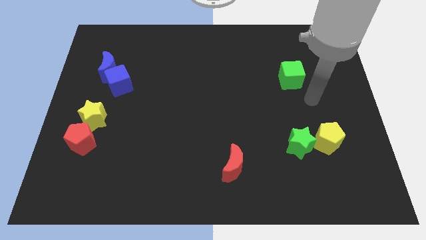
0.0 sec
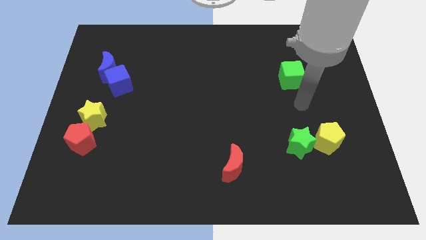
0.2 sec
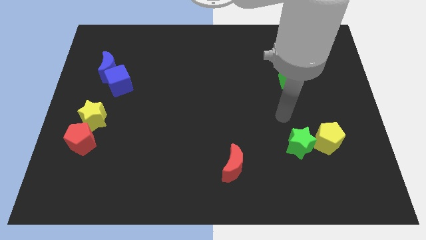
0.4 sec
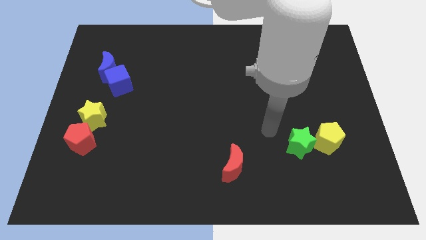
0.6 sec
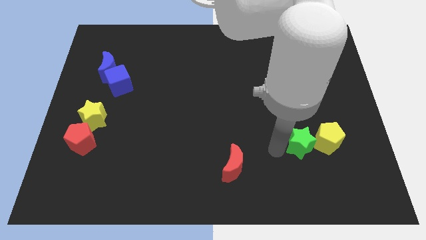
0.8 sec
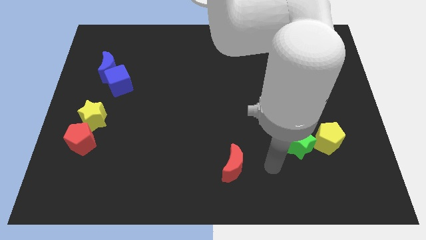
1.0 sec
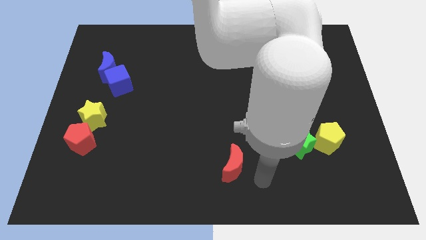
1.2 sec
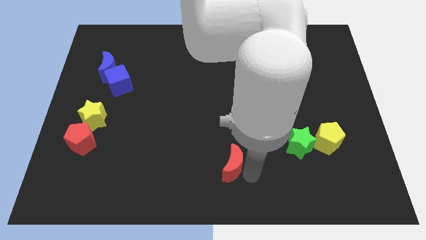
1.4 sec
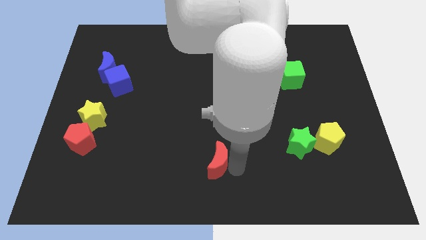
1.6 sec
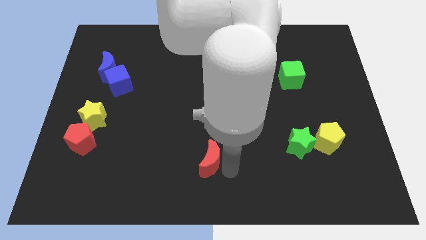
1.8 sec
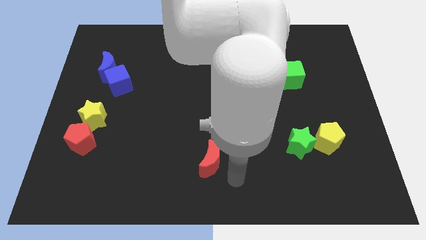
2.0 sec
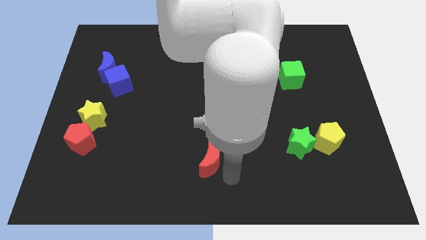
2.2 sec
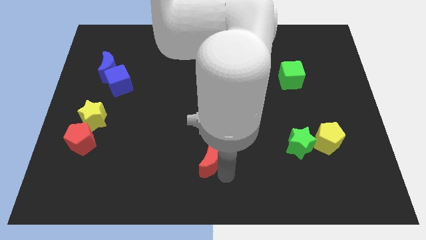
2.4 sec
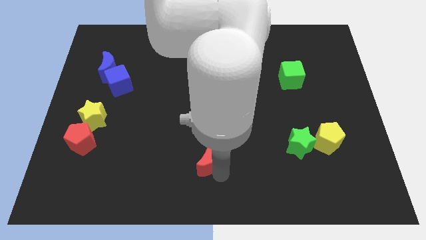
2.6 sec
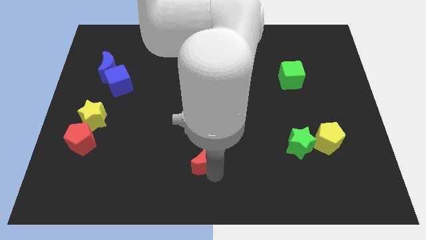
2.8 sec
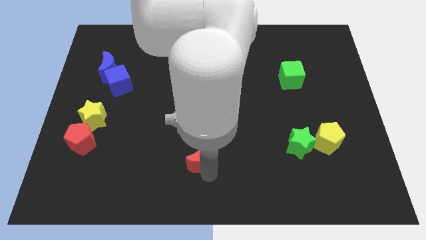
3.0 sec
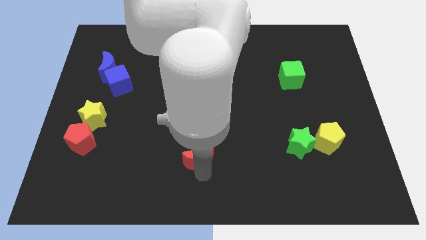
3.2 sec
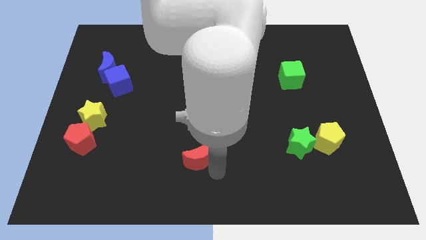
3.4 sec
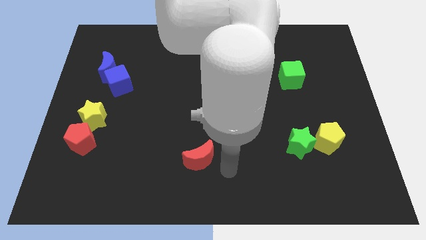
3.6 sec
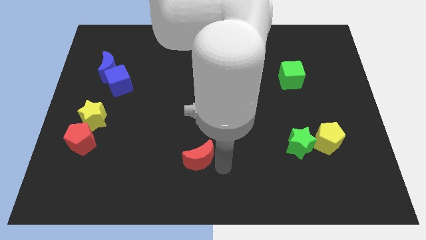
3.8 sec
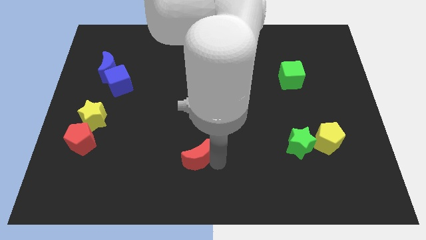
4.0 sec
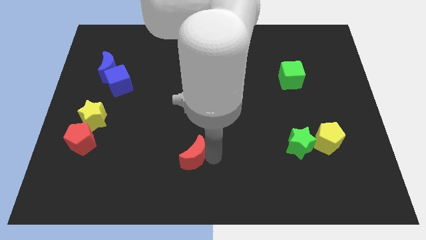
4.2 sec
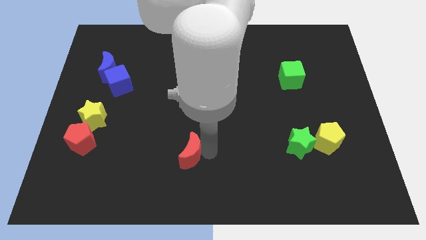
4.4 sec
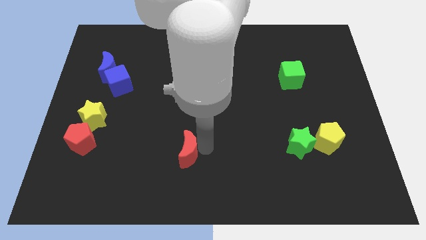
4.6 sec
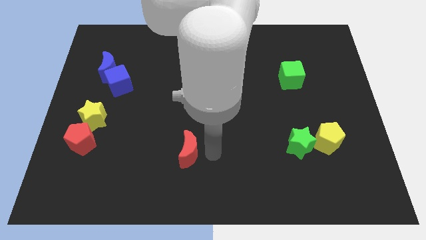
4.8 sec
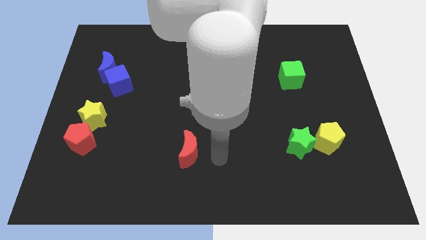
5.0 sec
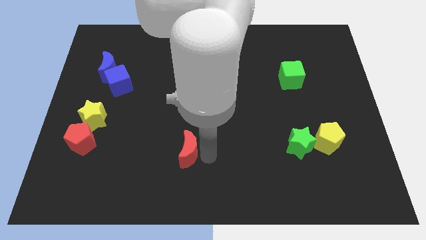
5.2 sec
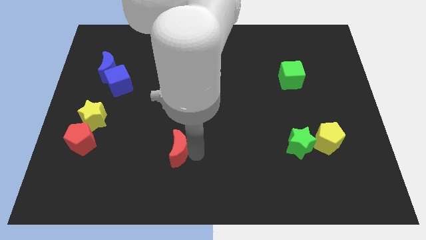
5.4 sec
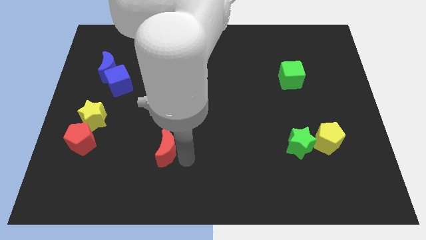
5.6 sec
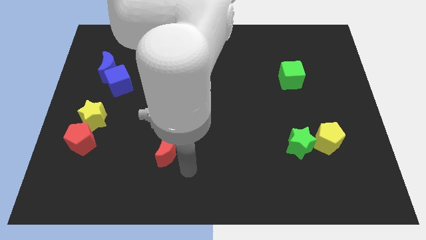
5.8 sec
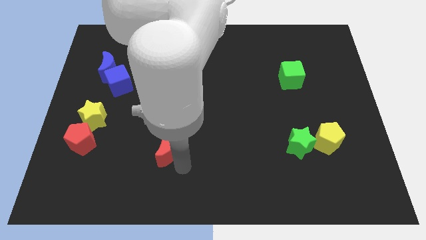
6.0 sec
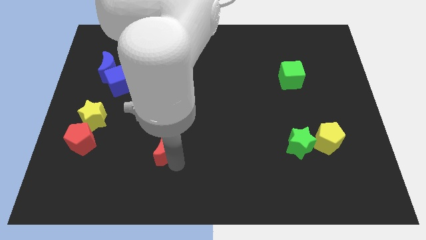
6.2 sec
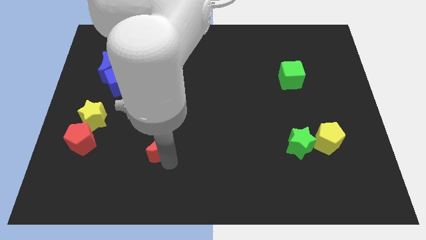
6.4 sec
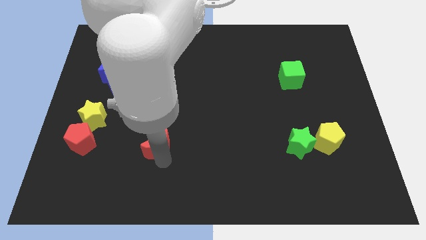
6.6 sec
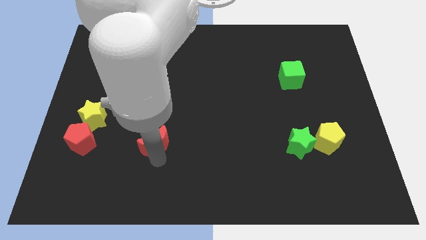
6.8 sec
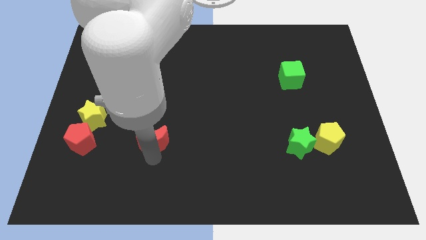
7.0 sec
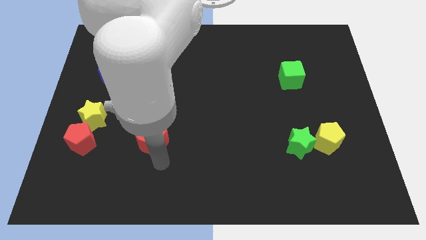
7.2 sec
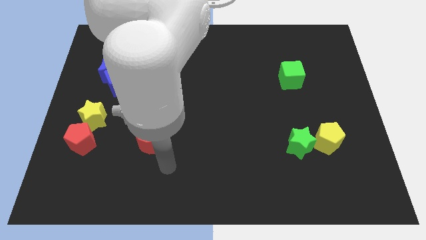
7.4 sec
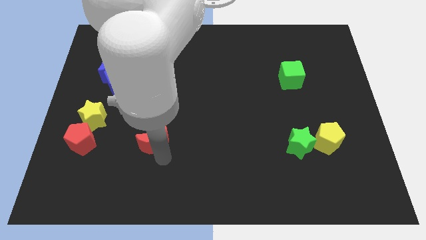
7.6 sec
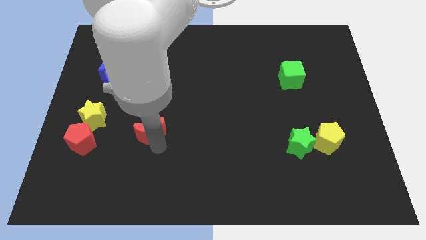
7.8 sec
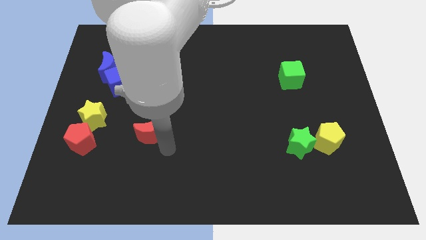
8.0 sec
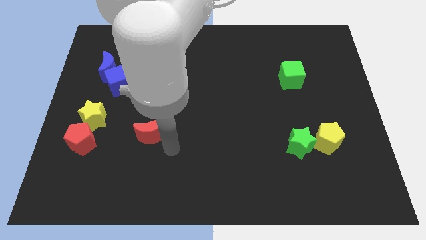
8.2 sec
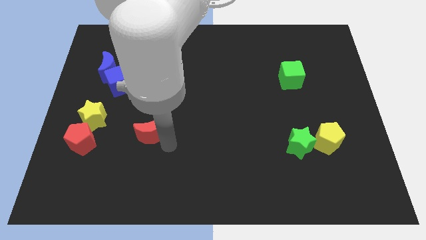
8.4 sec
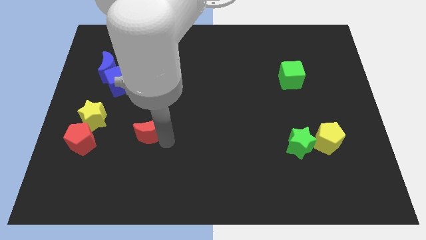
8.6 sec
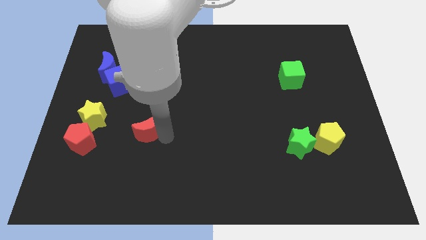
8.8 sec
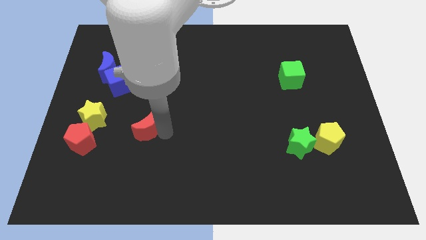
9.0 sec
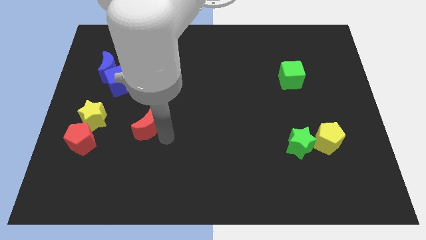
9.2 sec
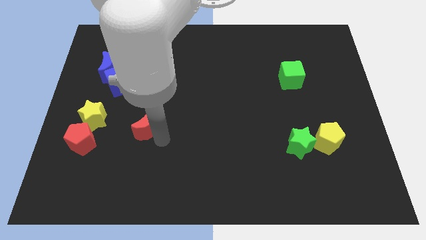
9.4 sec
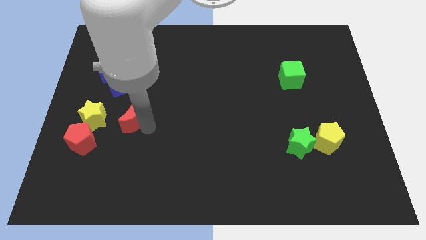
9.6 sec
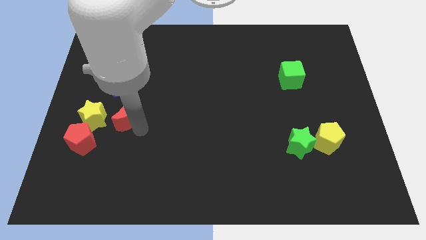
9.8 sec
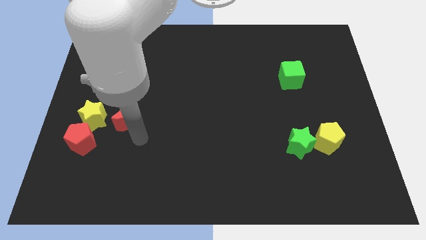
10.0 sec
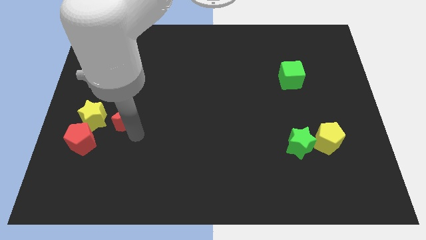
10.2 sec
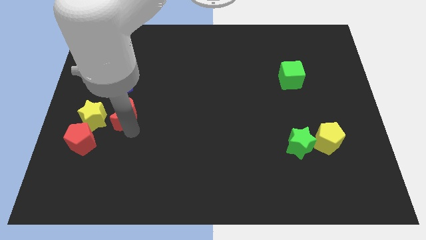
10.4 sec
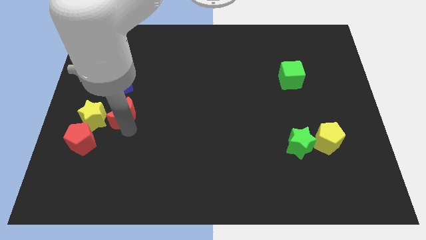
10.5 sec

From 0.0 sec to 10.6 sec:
push the red moon to the top right side of the yellow star

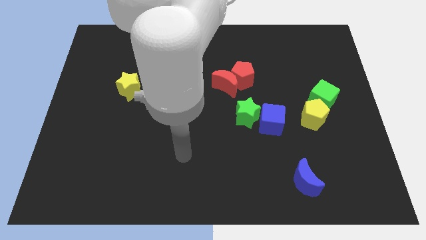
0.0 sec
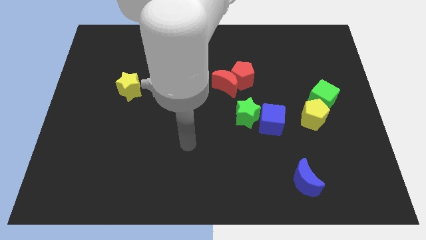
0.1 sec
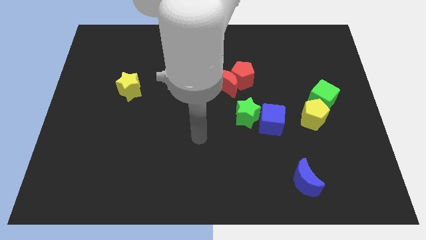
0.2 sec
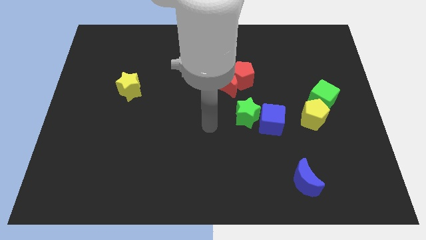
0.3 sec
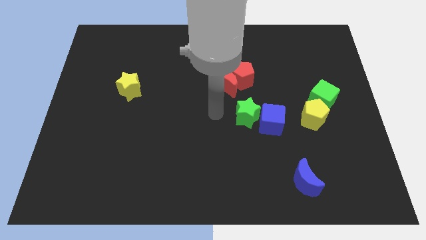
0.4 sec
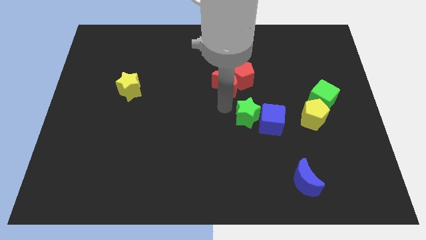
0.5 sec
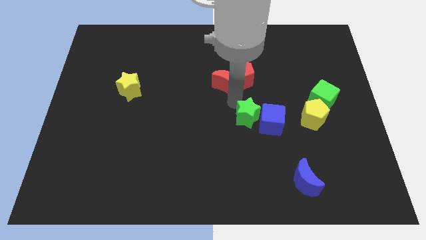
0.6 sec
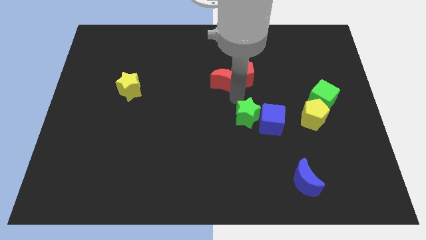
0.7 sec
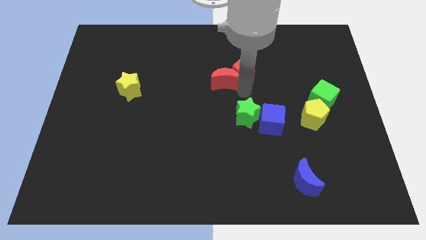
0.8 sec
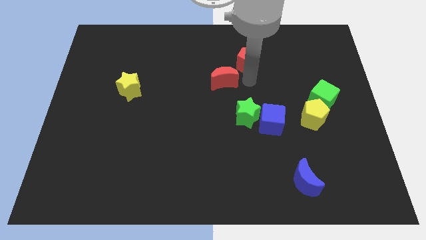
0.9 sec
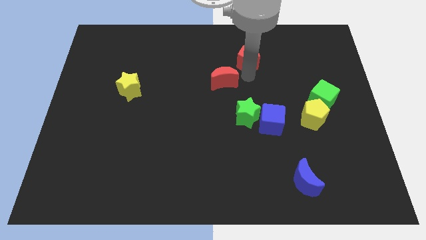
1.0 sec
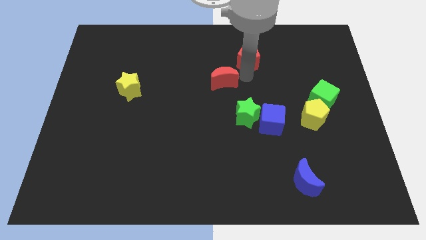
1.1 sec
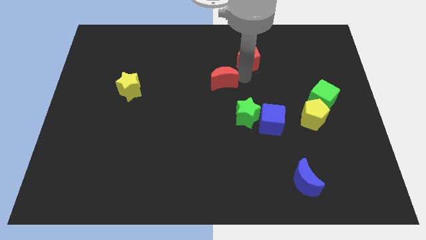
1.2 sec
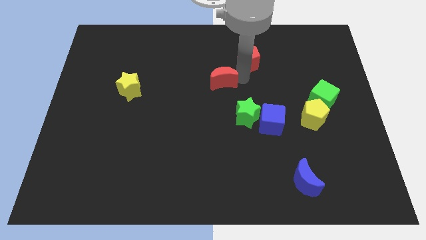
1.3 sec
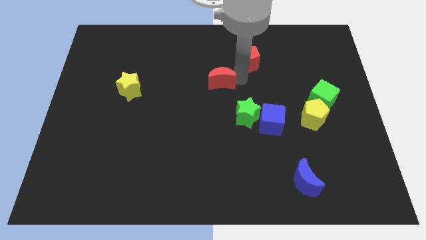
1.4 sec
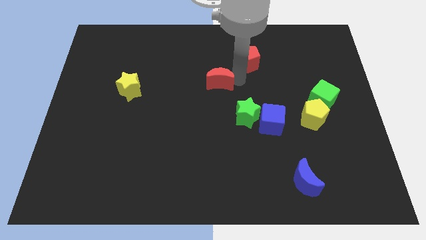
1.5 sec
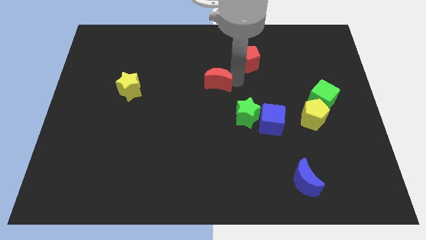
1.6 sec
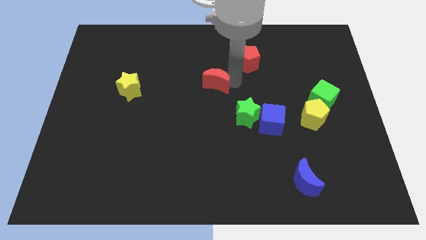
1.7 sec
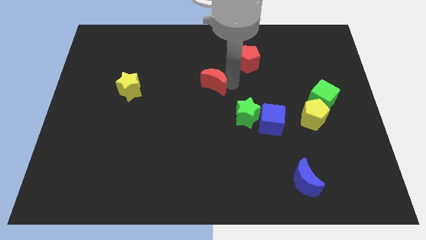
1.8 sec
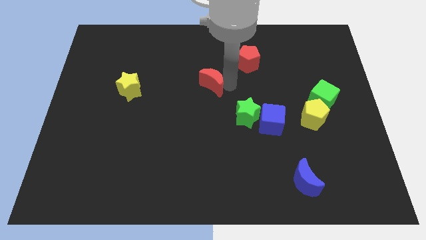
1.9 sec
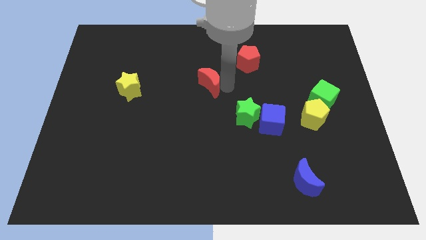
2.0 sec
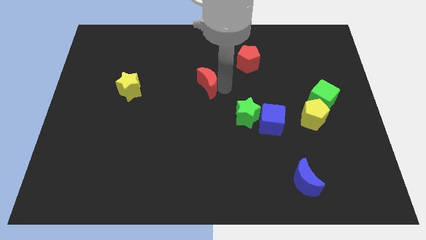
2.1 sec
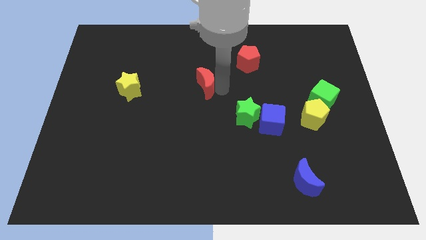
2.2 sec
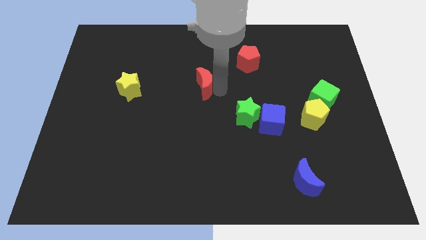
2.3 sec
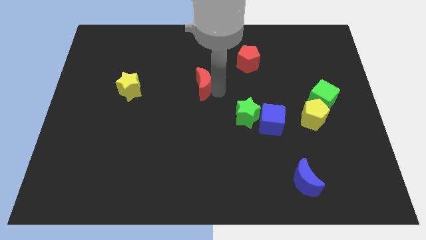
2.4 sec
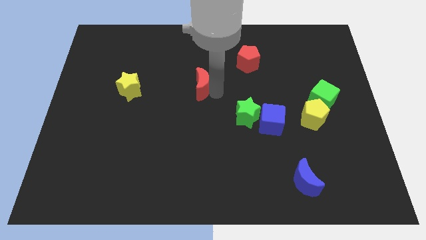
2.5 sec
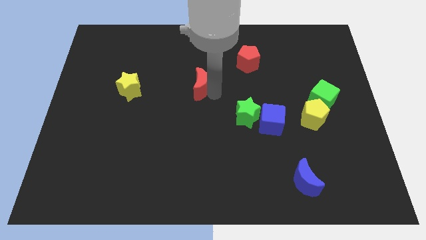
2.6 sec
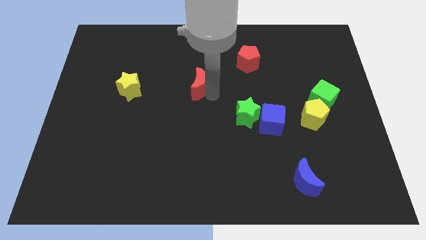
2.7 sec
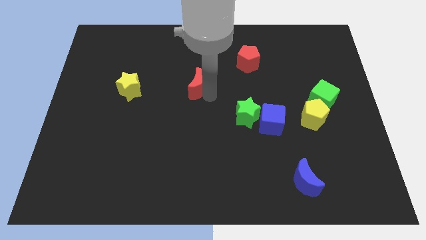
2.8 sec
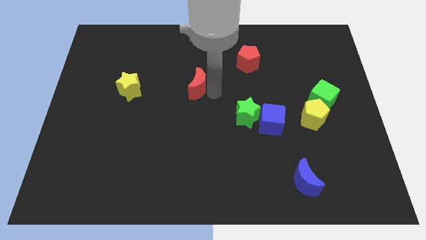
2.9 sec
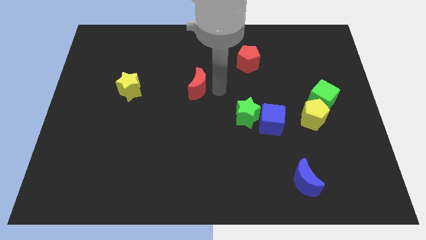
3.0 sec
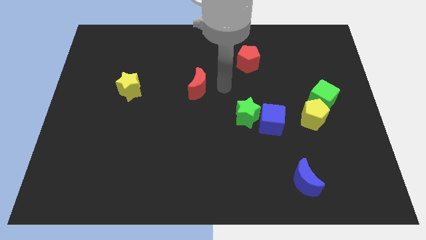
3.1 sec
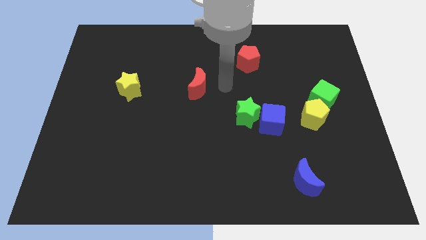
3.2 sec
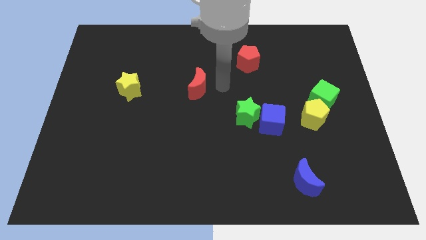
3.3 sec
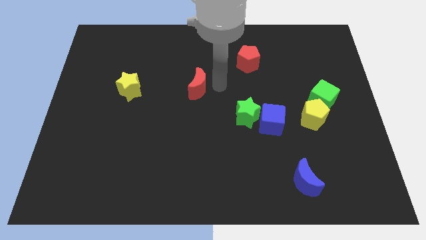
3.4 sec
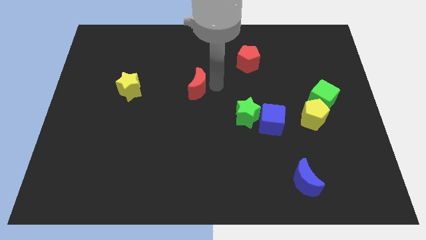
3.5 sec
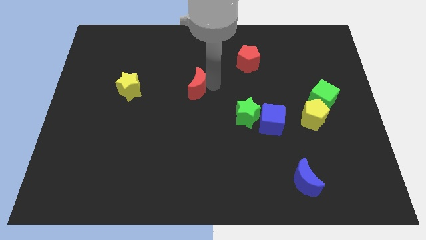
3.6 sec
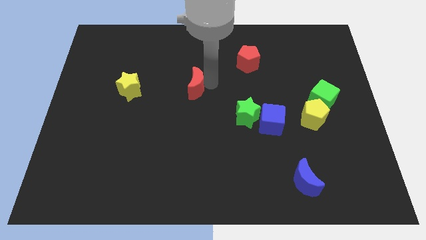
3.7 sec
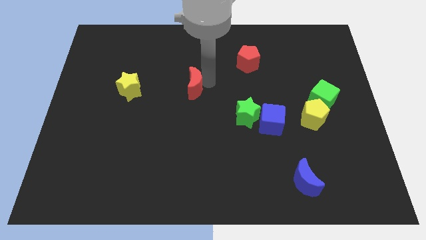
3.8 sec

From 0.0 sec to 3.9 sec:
slide the red moon to the right of the yellow star
